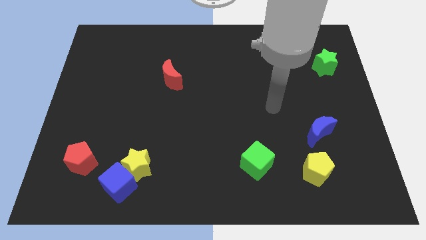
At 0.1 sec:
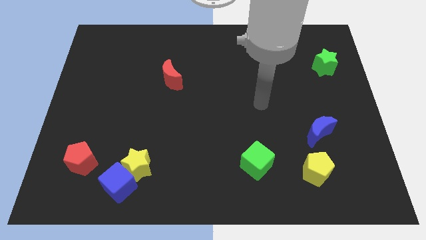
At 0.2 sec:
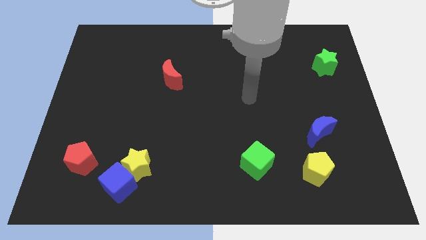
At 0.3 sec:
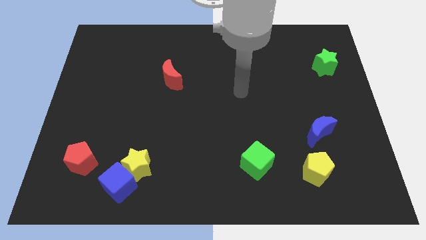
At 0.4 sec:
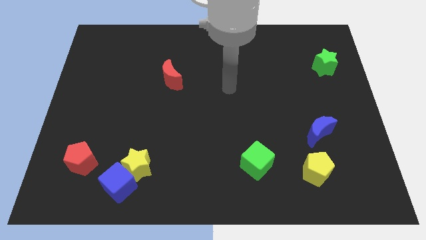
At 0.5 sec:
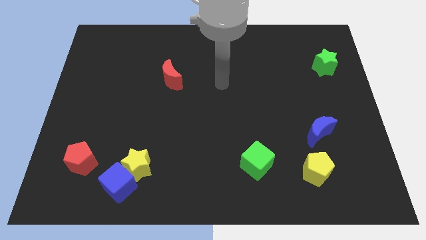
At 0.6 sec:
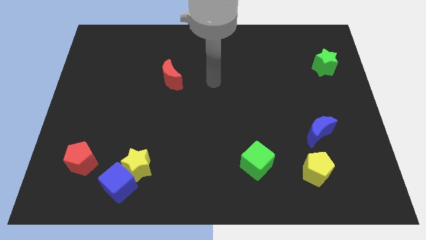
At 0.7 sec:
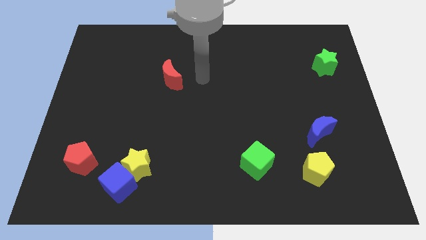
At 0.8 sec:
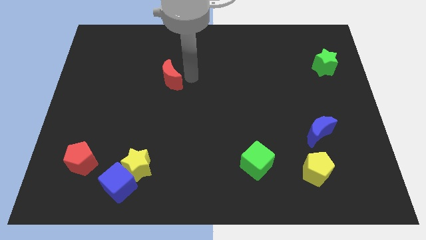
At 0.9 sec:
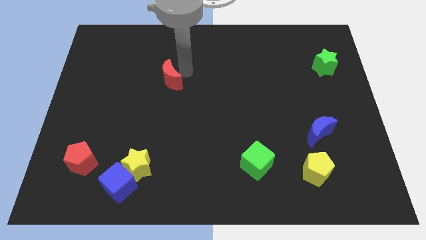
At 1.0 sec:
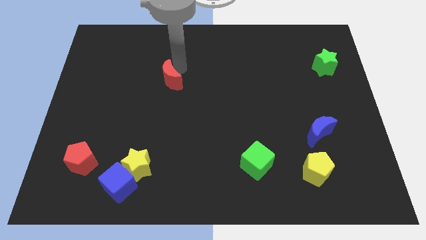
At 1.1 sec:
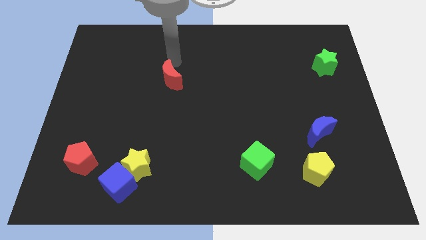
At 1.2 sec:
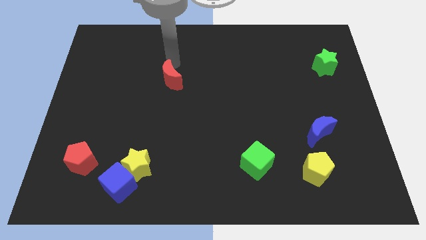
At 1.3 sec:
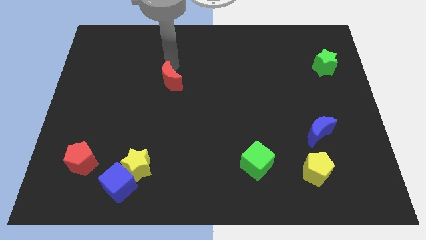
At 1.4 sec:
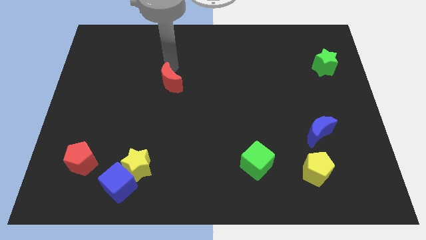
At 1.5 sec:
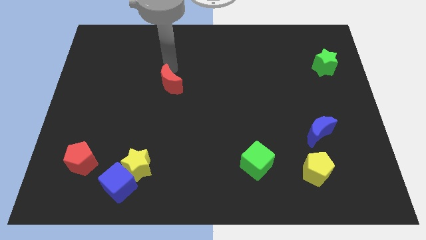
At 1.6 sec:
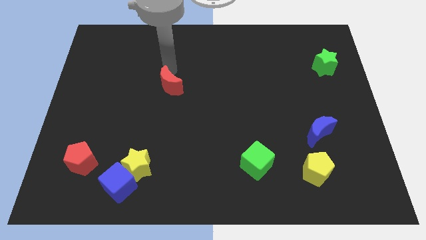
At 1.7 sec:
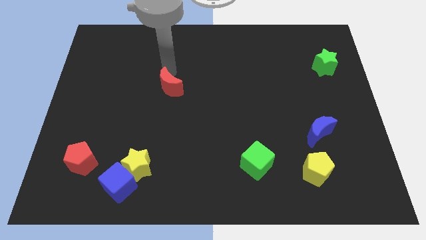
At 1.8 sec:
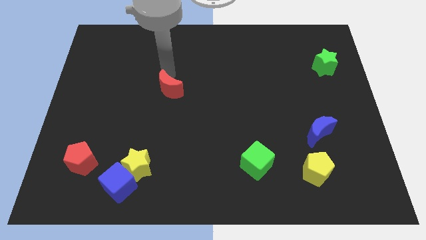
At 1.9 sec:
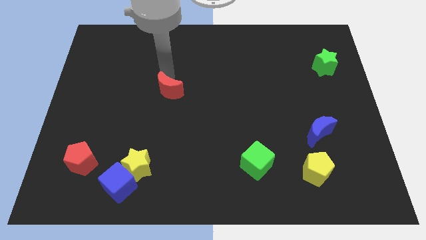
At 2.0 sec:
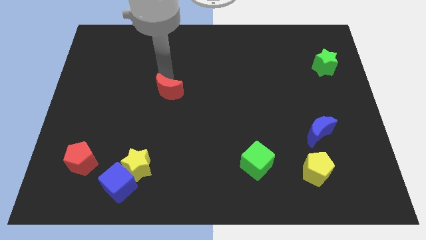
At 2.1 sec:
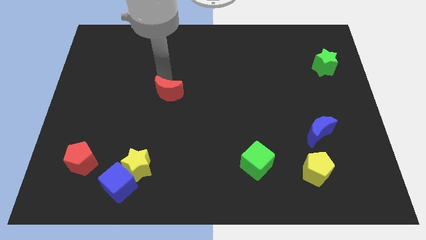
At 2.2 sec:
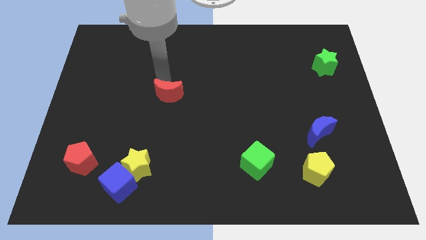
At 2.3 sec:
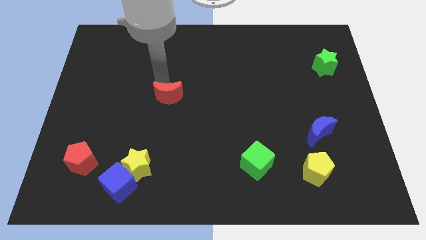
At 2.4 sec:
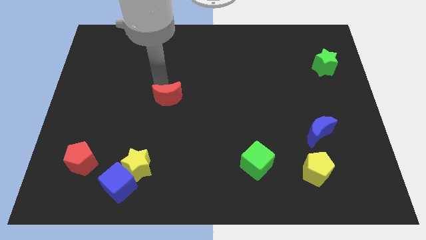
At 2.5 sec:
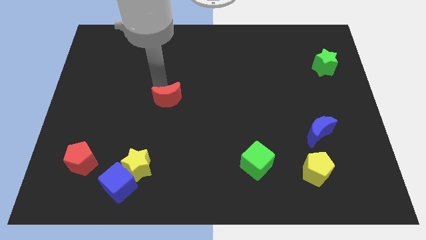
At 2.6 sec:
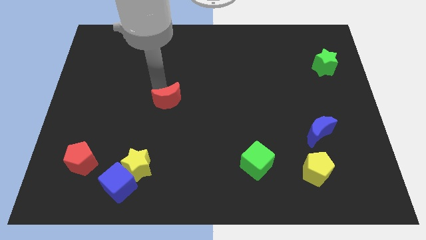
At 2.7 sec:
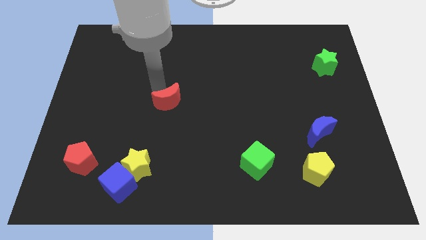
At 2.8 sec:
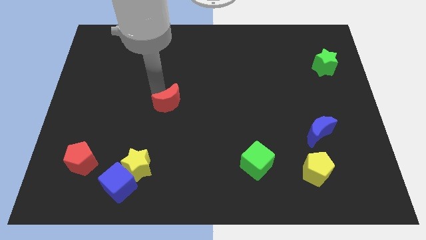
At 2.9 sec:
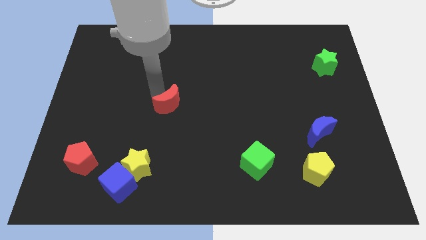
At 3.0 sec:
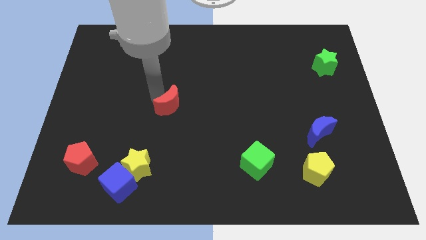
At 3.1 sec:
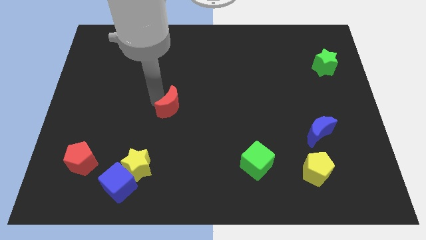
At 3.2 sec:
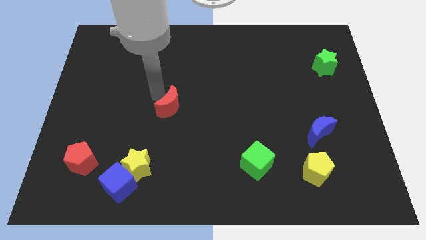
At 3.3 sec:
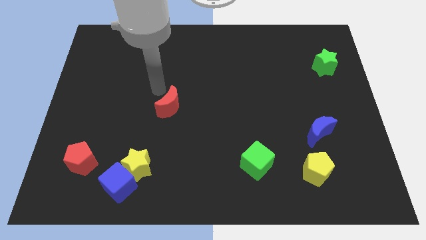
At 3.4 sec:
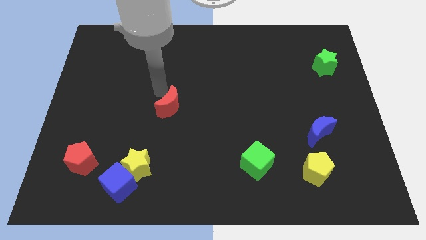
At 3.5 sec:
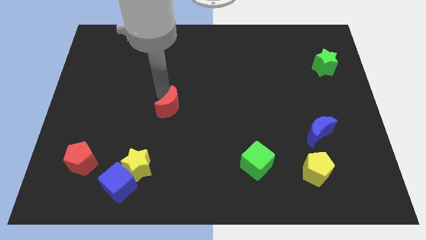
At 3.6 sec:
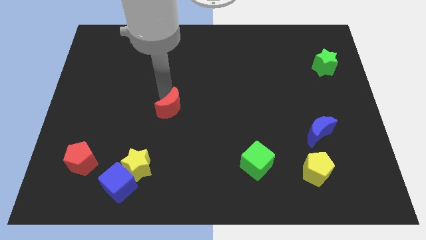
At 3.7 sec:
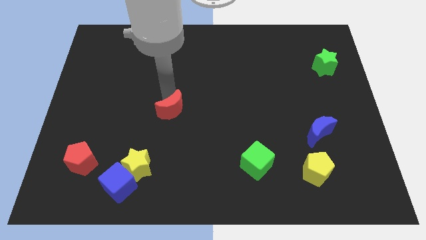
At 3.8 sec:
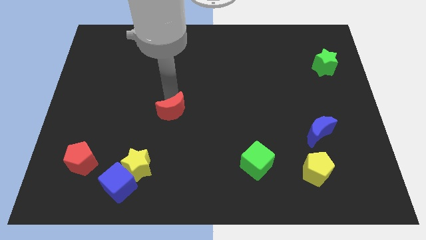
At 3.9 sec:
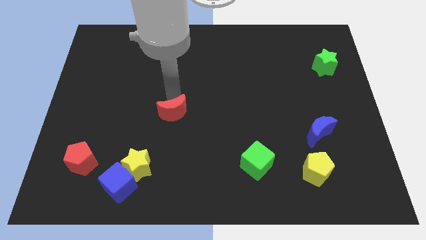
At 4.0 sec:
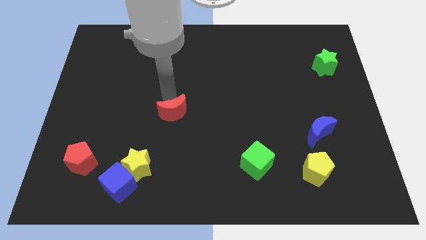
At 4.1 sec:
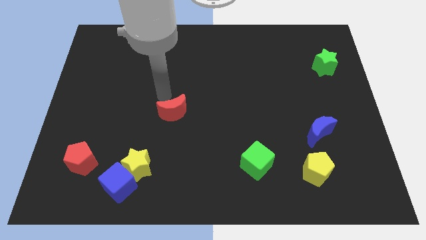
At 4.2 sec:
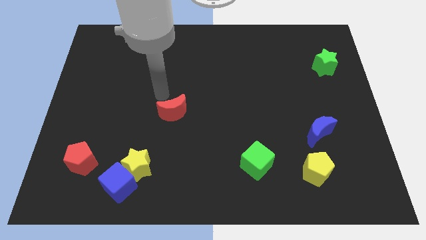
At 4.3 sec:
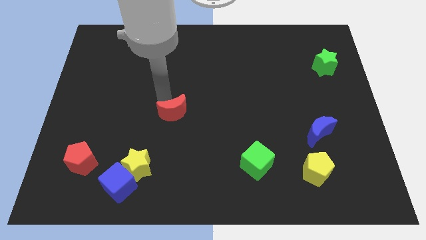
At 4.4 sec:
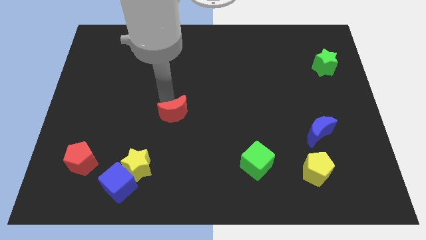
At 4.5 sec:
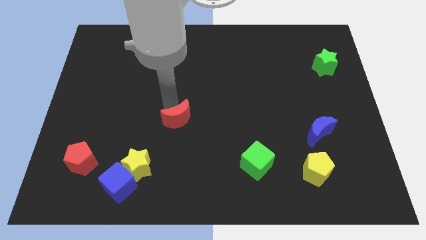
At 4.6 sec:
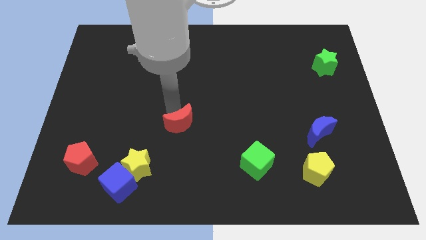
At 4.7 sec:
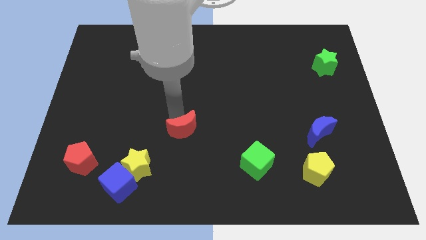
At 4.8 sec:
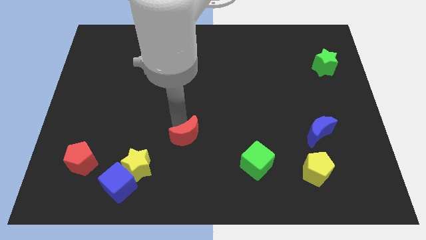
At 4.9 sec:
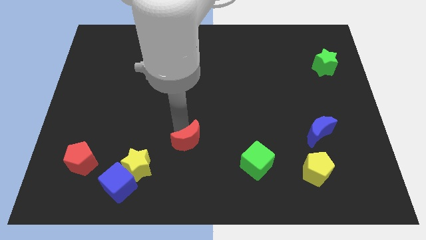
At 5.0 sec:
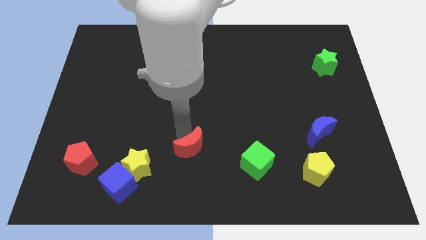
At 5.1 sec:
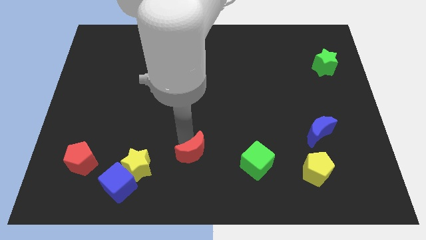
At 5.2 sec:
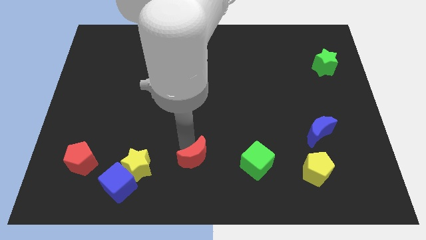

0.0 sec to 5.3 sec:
move the red moon to the bottom side
